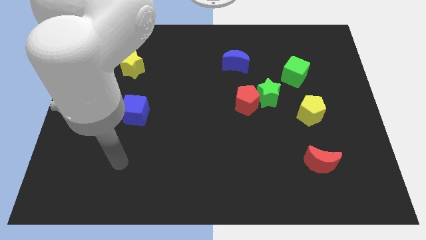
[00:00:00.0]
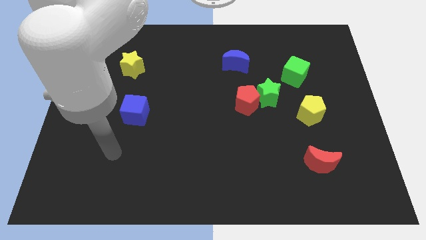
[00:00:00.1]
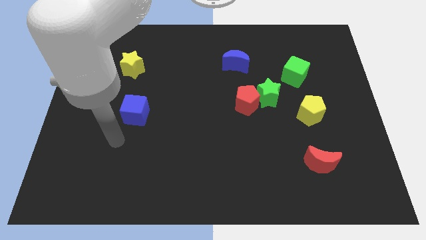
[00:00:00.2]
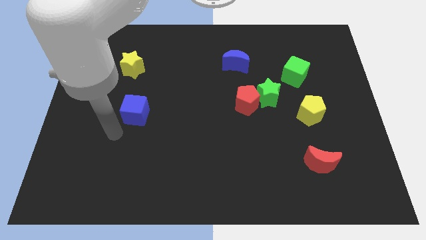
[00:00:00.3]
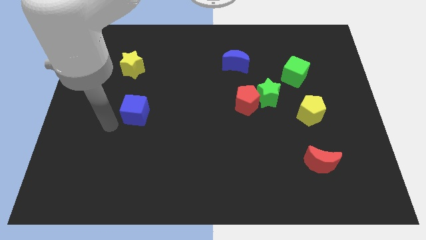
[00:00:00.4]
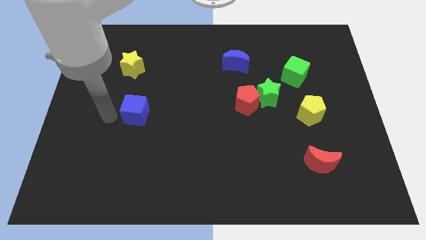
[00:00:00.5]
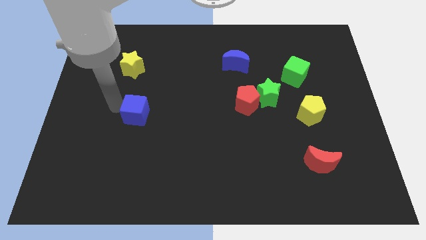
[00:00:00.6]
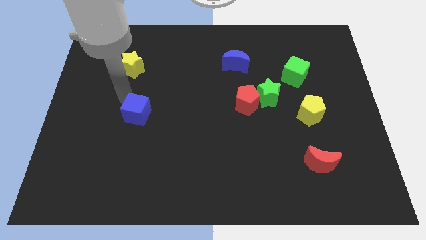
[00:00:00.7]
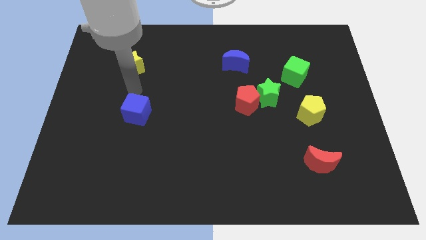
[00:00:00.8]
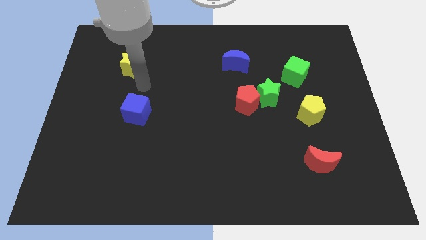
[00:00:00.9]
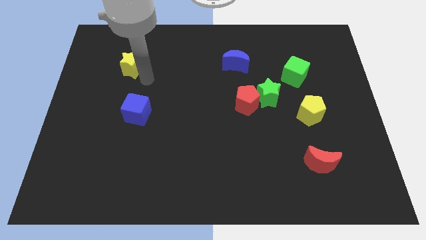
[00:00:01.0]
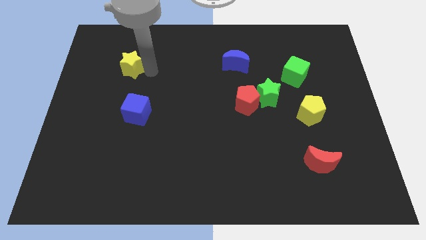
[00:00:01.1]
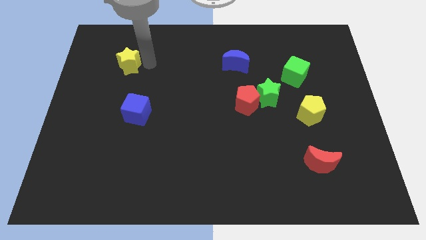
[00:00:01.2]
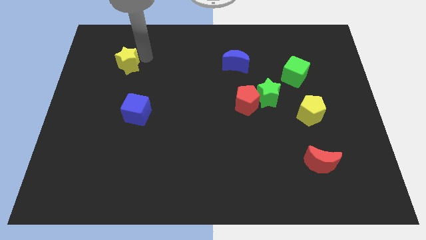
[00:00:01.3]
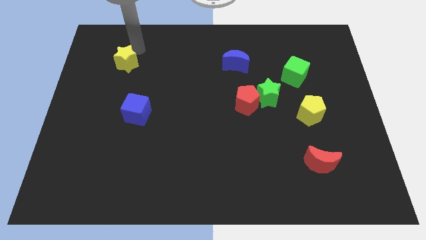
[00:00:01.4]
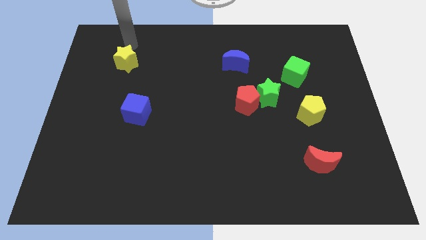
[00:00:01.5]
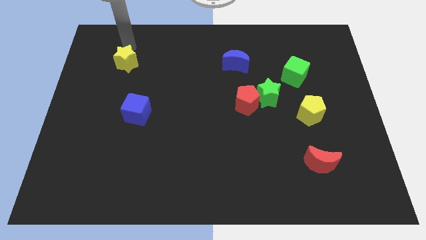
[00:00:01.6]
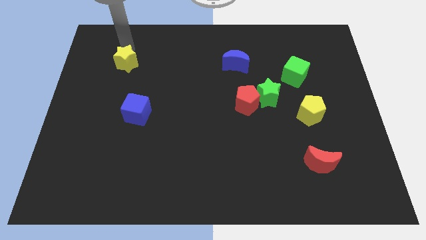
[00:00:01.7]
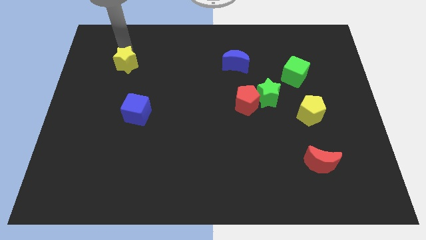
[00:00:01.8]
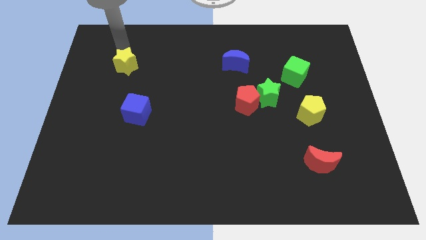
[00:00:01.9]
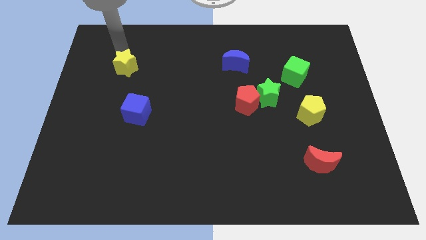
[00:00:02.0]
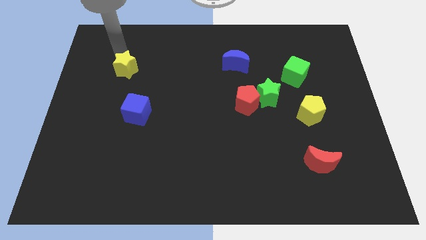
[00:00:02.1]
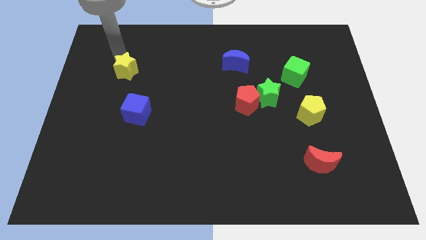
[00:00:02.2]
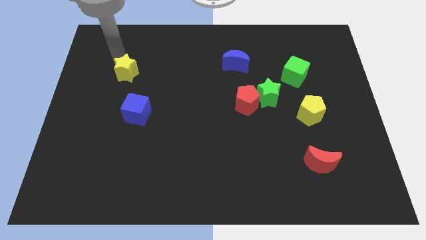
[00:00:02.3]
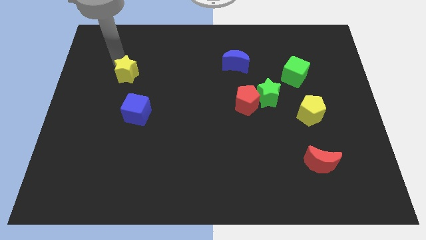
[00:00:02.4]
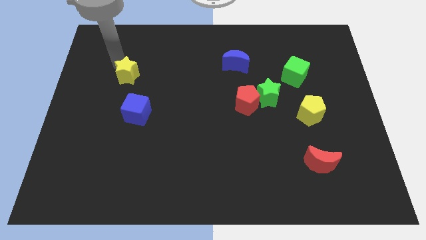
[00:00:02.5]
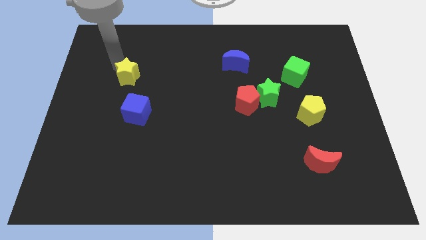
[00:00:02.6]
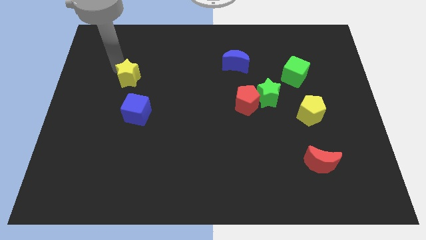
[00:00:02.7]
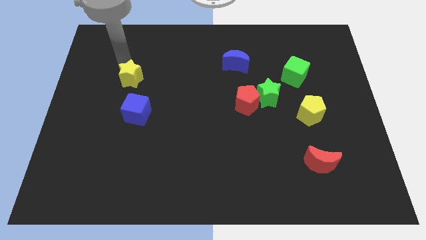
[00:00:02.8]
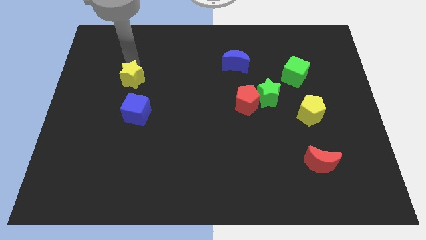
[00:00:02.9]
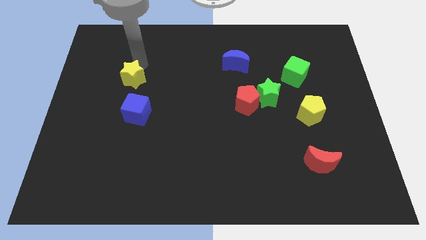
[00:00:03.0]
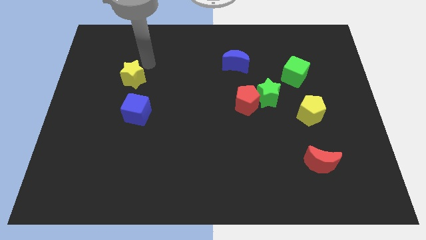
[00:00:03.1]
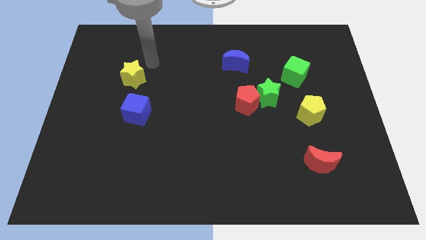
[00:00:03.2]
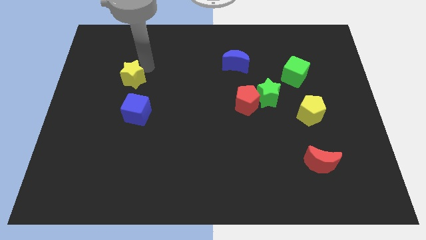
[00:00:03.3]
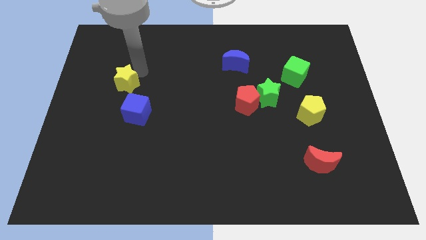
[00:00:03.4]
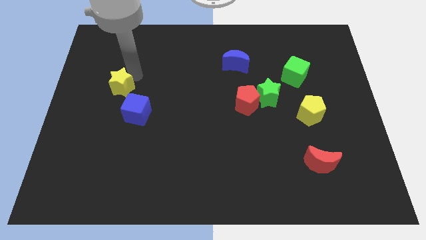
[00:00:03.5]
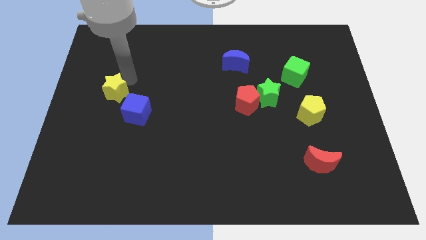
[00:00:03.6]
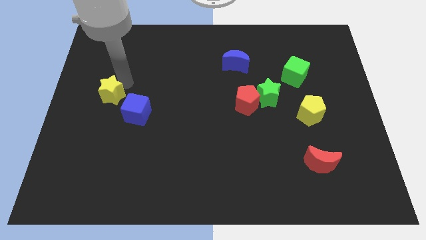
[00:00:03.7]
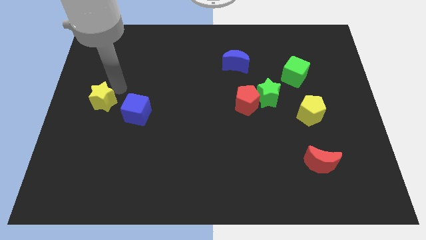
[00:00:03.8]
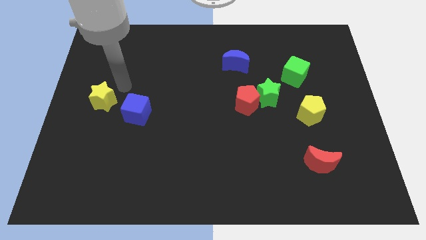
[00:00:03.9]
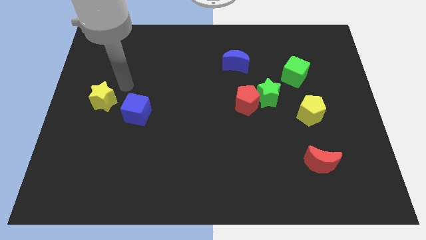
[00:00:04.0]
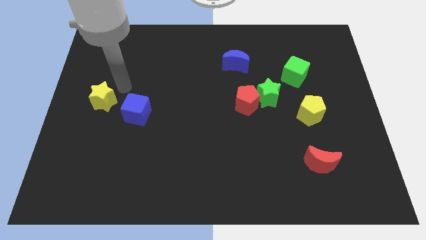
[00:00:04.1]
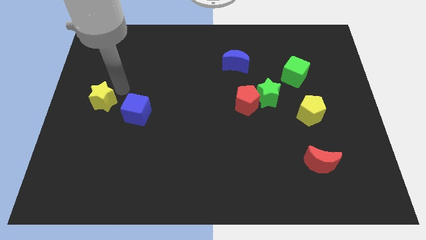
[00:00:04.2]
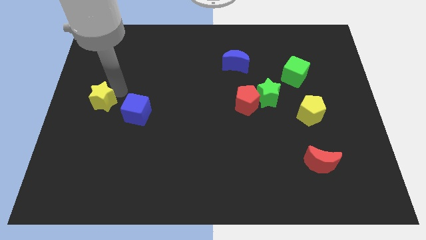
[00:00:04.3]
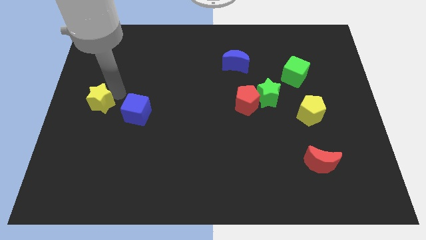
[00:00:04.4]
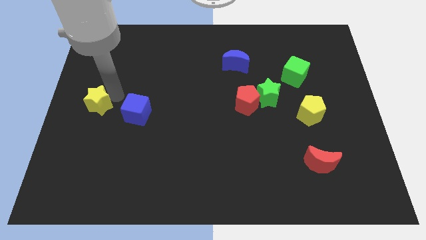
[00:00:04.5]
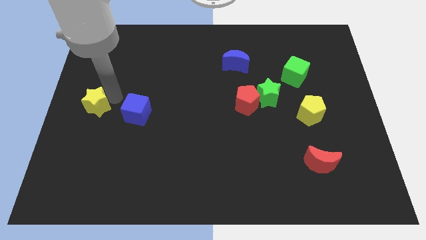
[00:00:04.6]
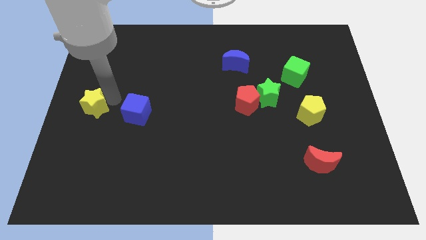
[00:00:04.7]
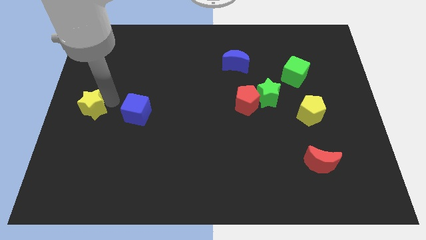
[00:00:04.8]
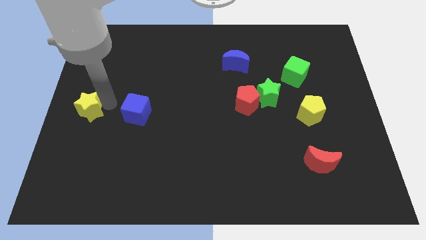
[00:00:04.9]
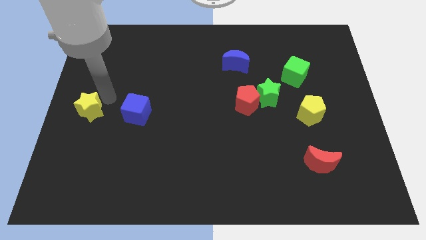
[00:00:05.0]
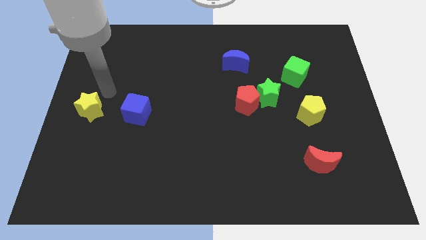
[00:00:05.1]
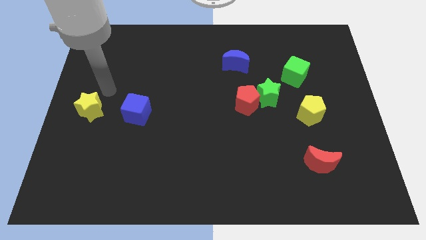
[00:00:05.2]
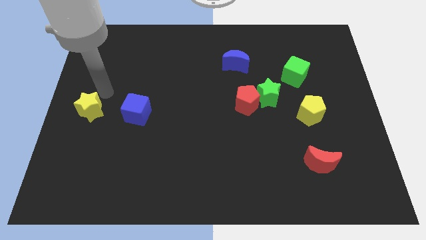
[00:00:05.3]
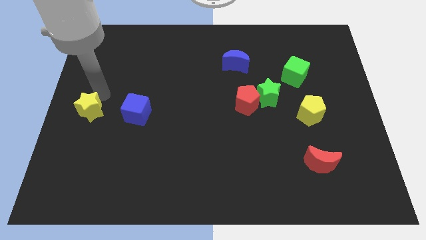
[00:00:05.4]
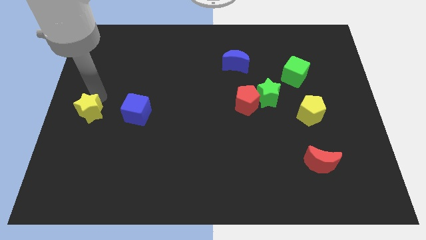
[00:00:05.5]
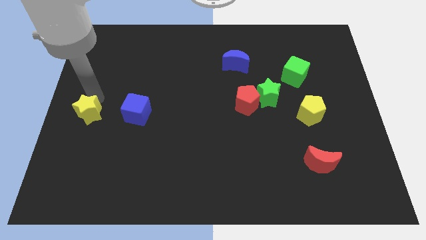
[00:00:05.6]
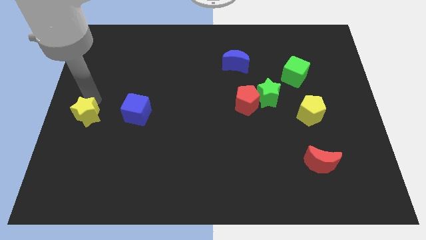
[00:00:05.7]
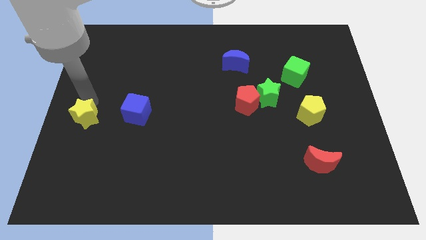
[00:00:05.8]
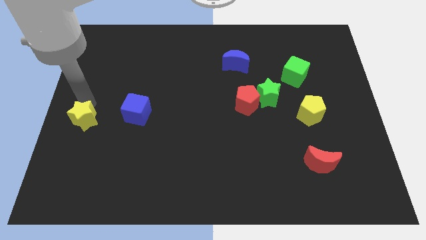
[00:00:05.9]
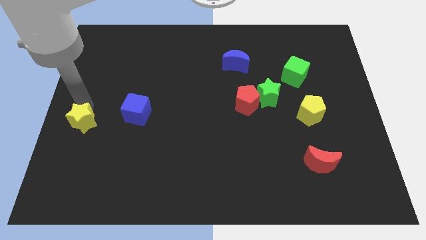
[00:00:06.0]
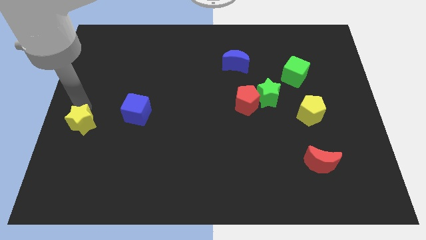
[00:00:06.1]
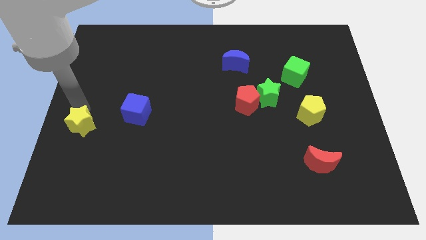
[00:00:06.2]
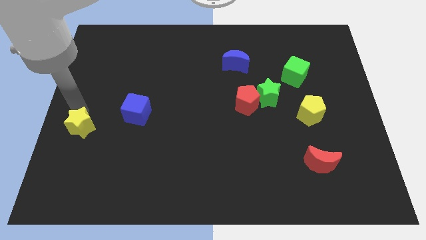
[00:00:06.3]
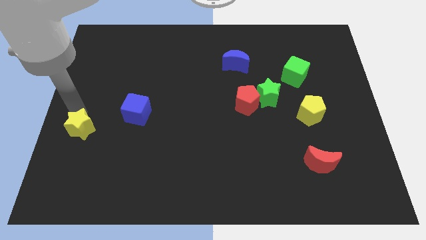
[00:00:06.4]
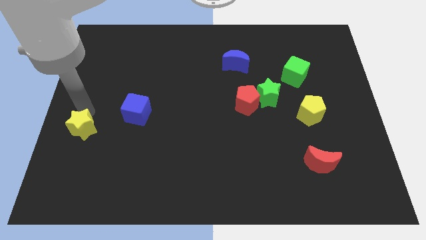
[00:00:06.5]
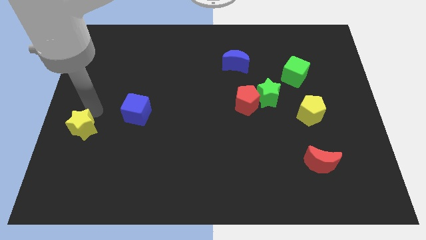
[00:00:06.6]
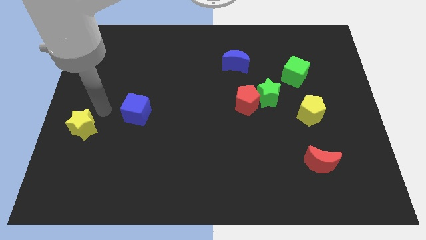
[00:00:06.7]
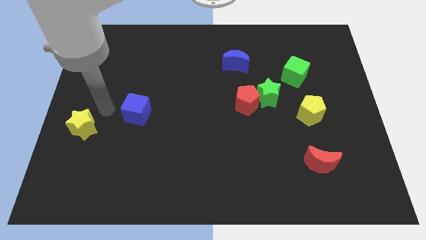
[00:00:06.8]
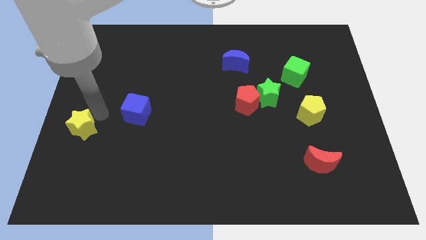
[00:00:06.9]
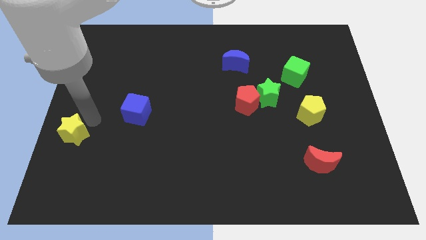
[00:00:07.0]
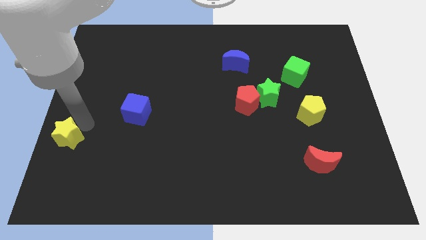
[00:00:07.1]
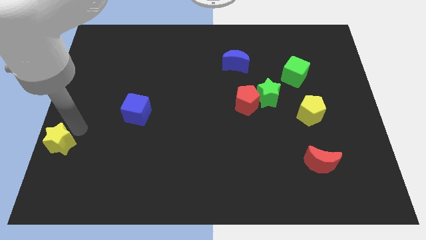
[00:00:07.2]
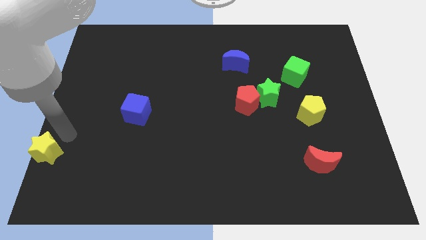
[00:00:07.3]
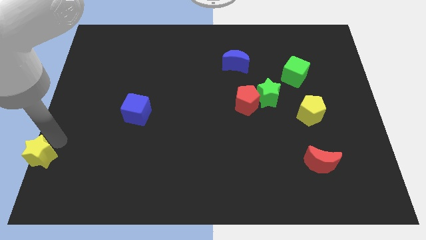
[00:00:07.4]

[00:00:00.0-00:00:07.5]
slide the yellow star to the bottom left
